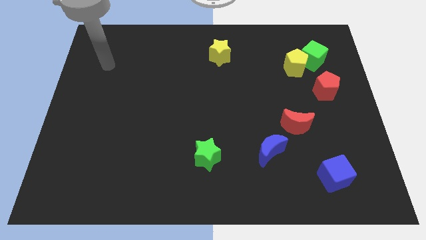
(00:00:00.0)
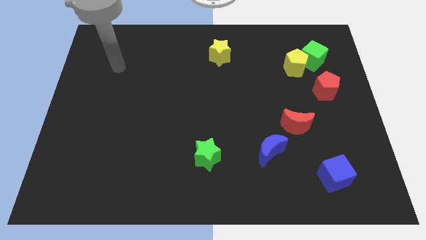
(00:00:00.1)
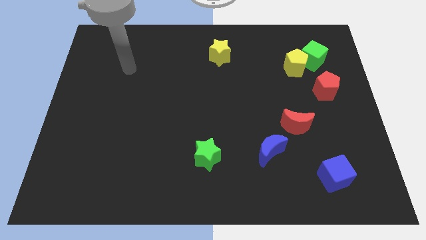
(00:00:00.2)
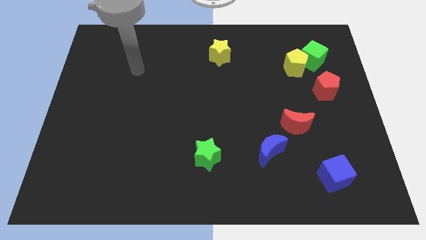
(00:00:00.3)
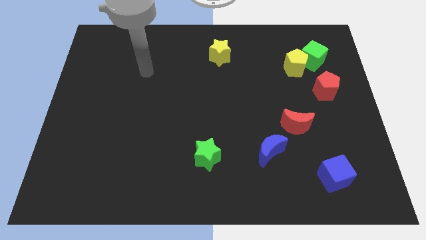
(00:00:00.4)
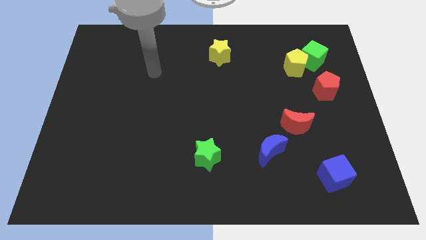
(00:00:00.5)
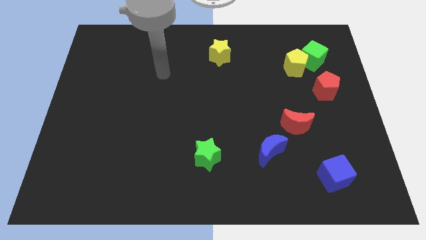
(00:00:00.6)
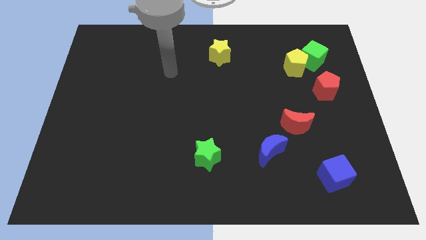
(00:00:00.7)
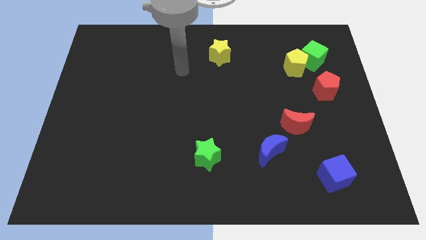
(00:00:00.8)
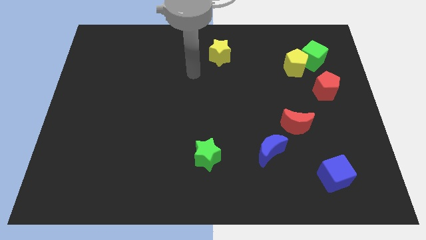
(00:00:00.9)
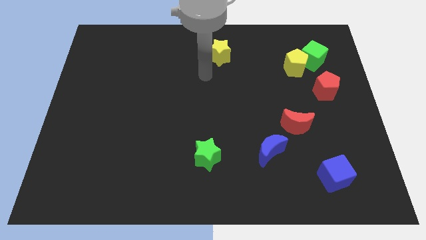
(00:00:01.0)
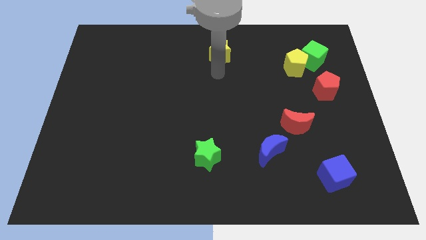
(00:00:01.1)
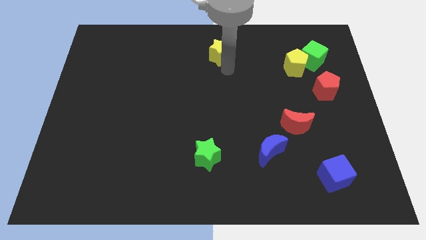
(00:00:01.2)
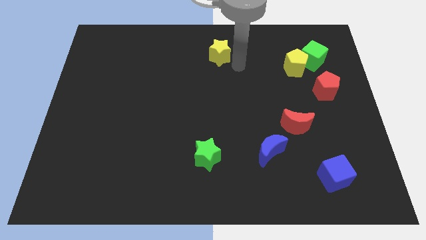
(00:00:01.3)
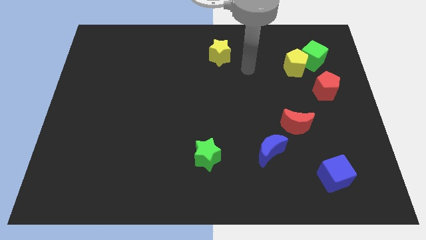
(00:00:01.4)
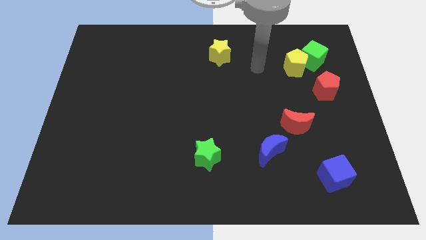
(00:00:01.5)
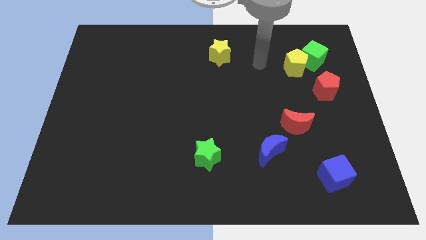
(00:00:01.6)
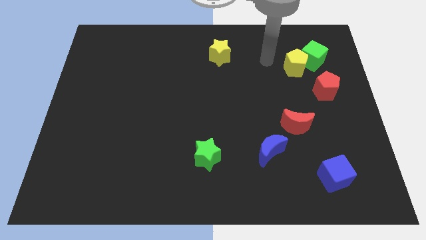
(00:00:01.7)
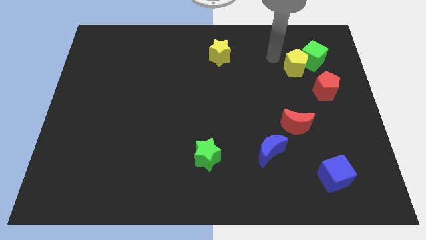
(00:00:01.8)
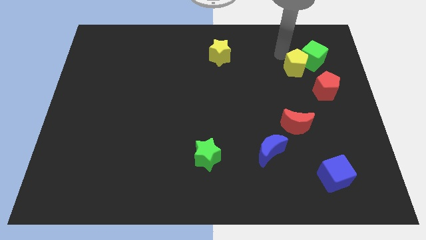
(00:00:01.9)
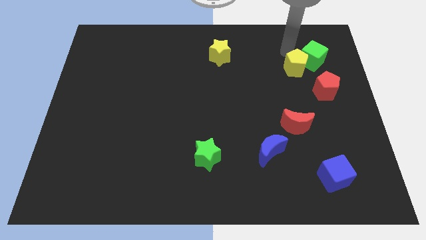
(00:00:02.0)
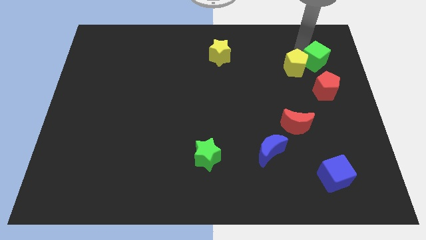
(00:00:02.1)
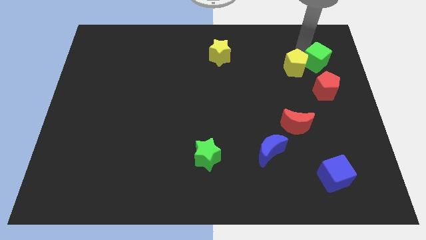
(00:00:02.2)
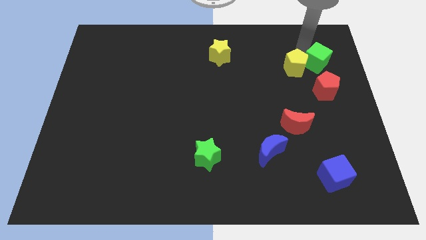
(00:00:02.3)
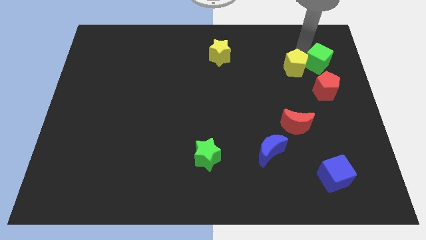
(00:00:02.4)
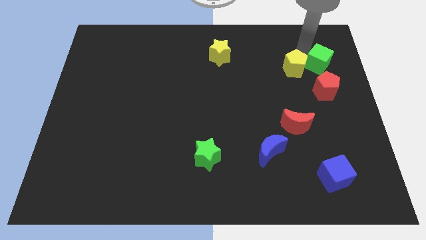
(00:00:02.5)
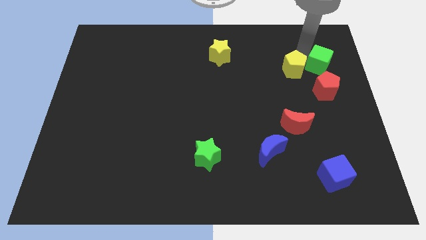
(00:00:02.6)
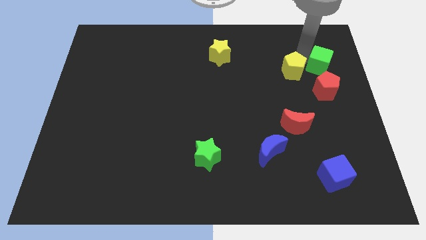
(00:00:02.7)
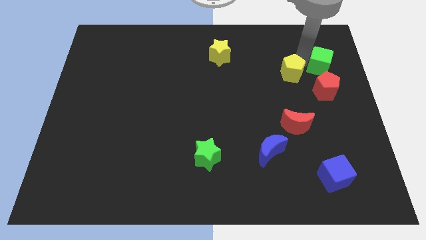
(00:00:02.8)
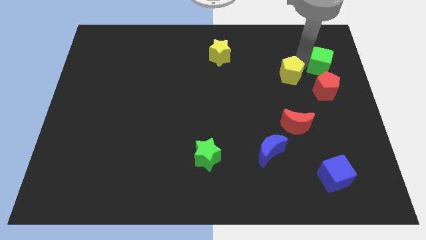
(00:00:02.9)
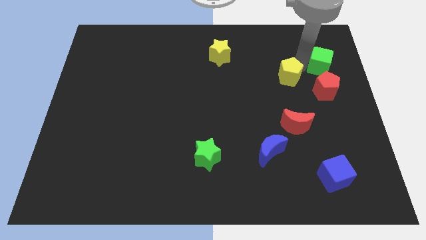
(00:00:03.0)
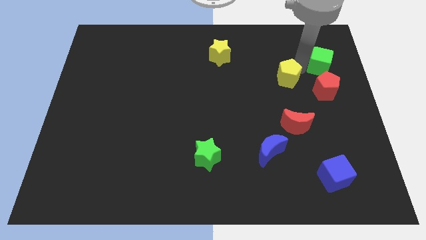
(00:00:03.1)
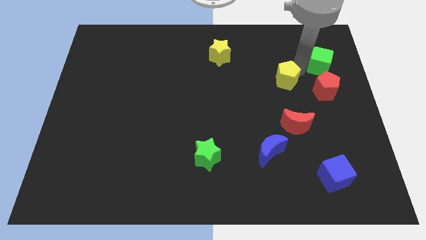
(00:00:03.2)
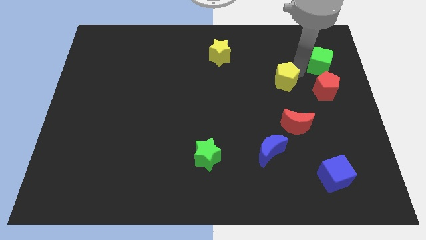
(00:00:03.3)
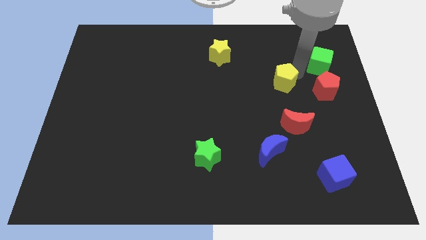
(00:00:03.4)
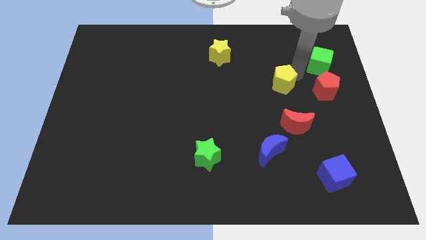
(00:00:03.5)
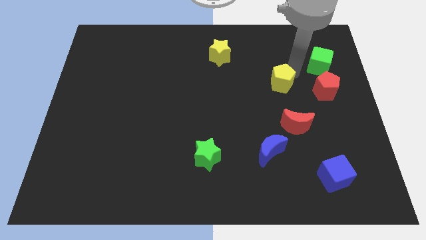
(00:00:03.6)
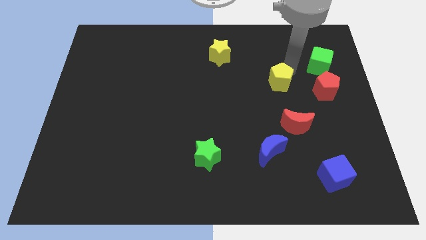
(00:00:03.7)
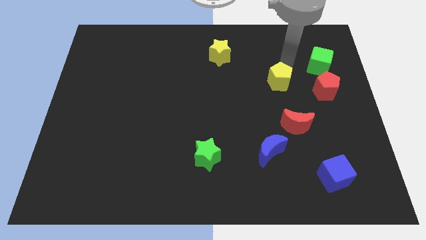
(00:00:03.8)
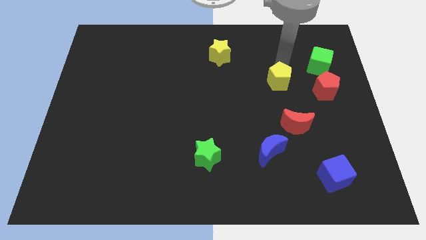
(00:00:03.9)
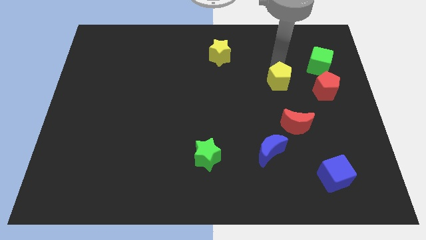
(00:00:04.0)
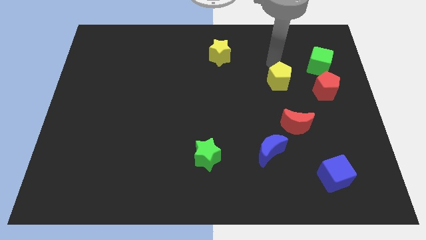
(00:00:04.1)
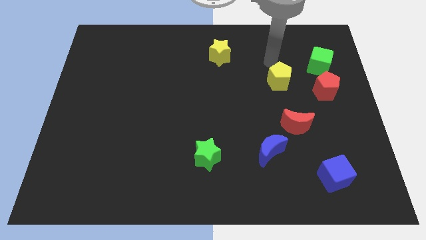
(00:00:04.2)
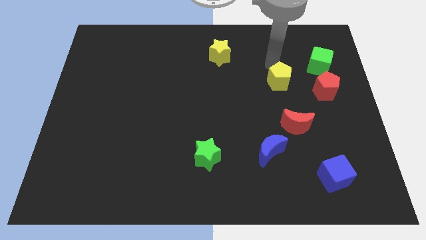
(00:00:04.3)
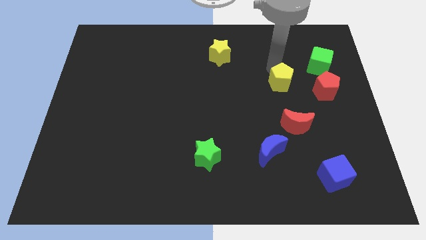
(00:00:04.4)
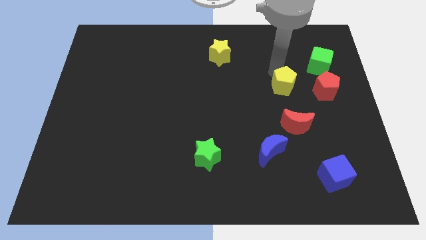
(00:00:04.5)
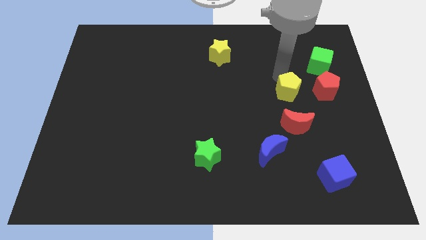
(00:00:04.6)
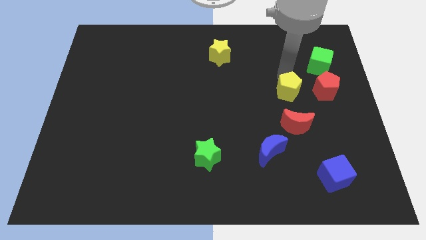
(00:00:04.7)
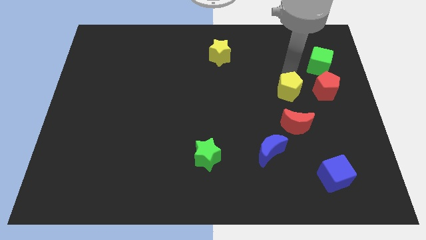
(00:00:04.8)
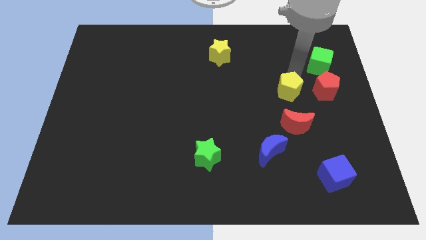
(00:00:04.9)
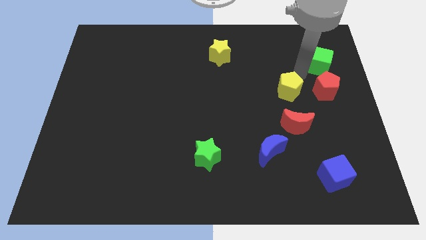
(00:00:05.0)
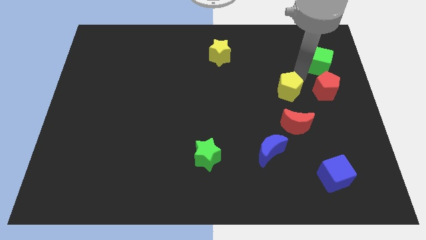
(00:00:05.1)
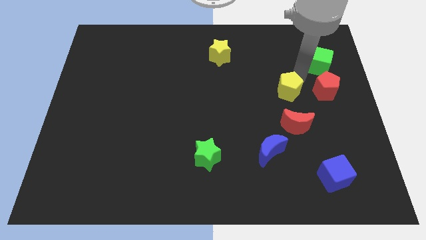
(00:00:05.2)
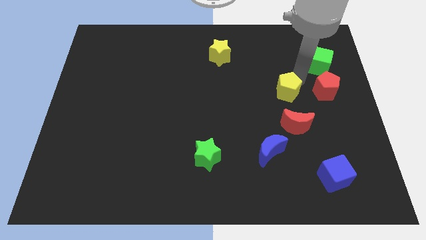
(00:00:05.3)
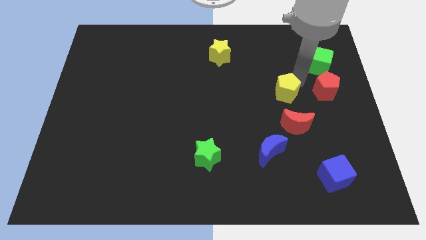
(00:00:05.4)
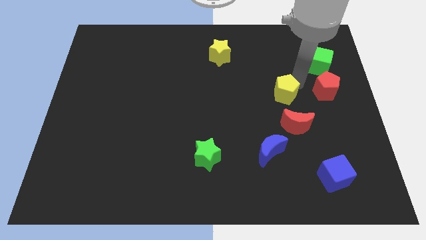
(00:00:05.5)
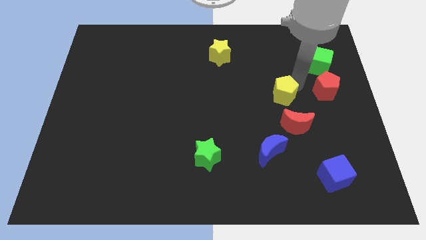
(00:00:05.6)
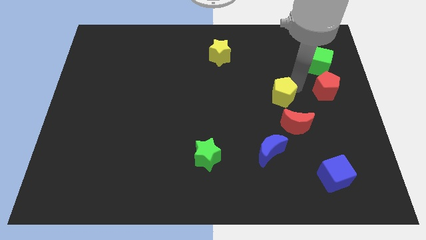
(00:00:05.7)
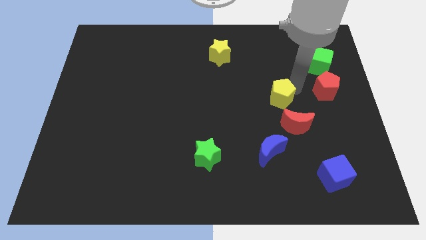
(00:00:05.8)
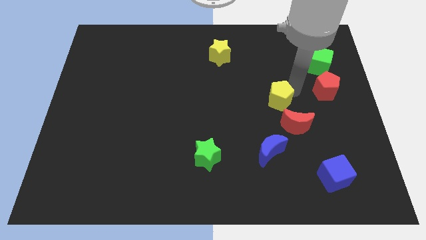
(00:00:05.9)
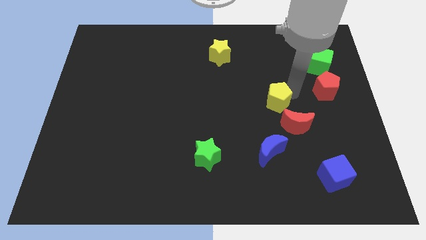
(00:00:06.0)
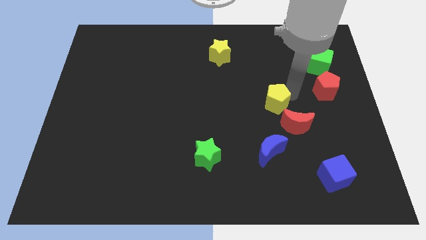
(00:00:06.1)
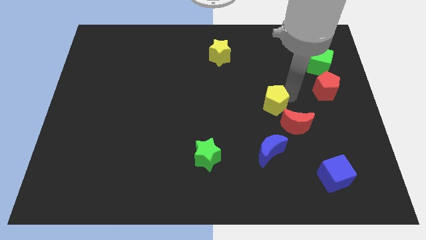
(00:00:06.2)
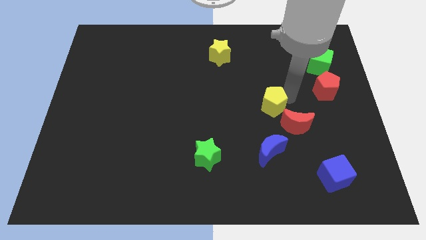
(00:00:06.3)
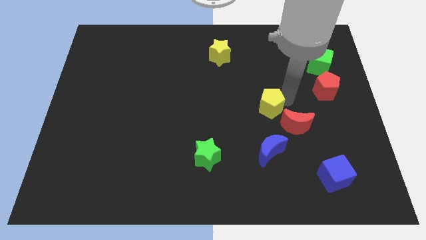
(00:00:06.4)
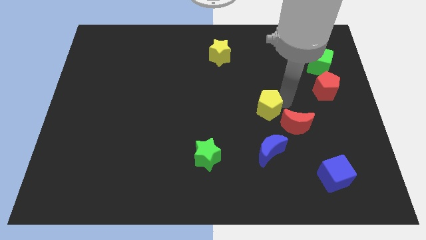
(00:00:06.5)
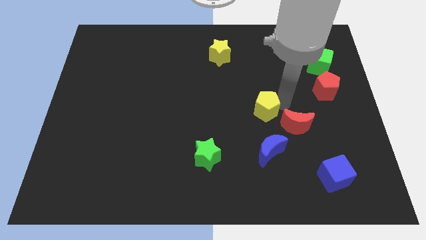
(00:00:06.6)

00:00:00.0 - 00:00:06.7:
put the yellow pentagon just left of the red moon
